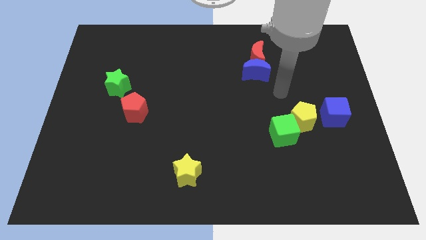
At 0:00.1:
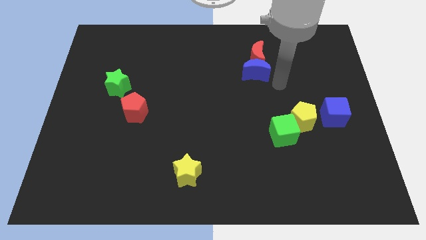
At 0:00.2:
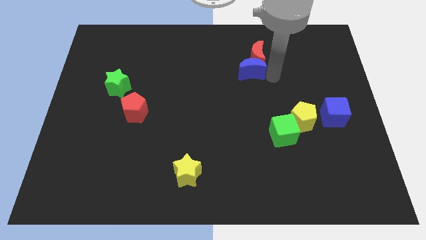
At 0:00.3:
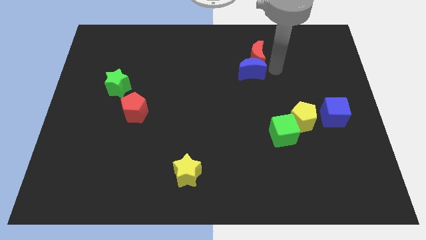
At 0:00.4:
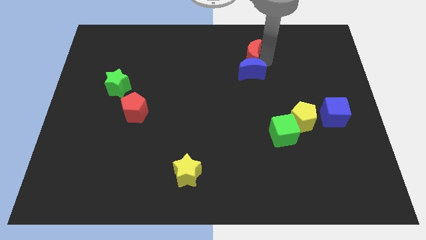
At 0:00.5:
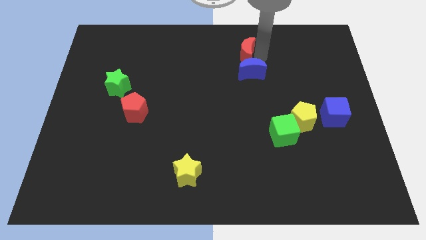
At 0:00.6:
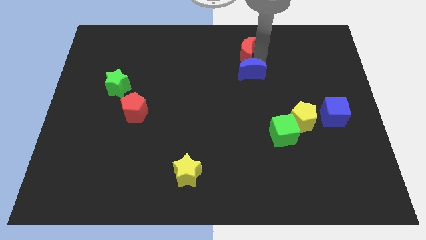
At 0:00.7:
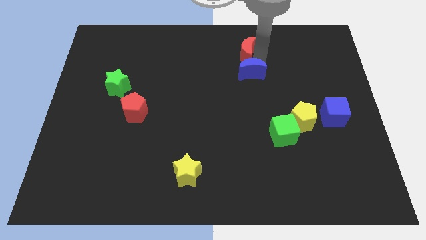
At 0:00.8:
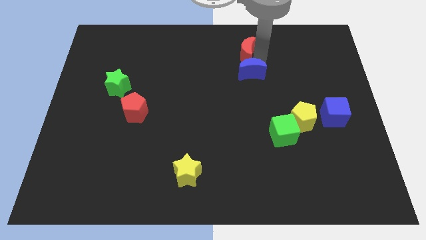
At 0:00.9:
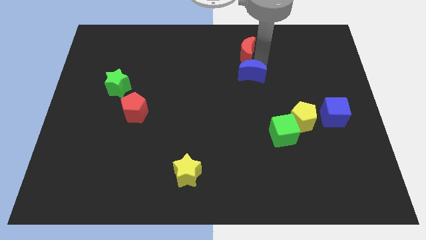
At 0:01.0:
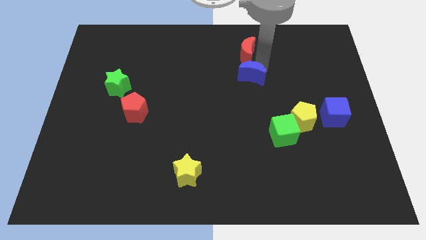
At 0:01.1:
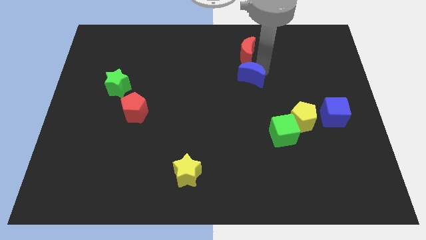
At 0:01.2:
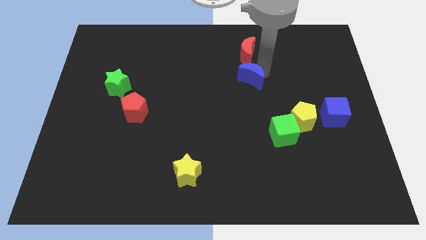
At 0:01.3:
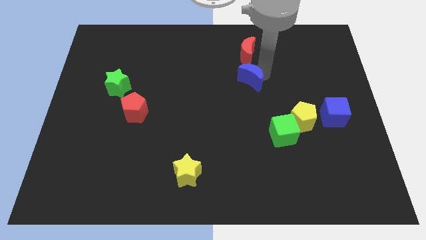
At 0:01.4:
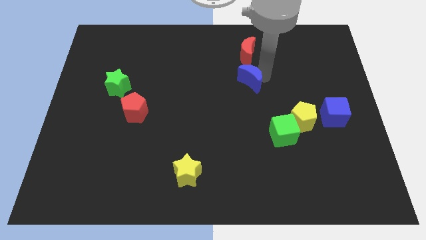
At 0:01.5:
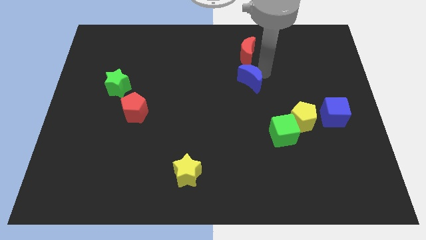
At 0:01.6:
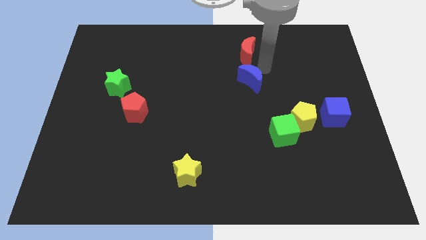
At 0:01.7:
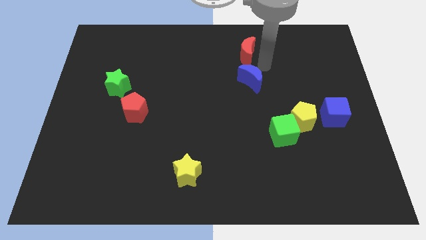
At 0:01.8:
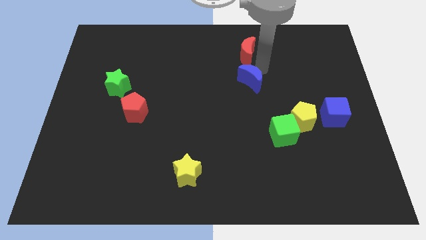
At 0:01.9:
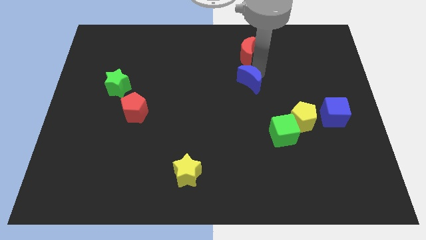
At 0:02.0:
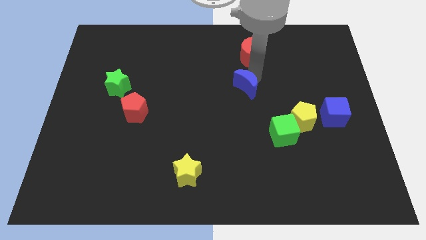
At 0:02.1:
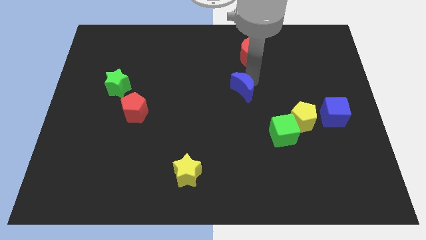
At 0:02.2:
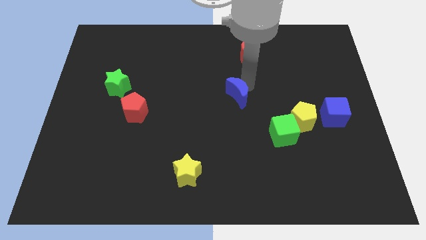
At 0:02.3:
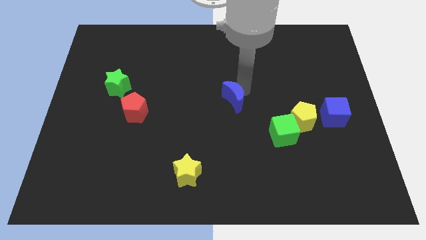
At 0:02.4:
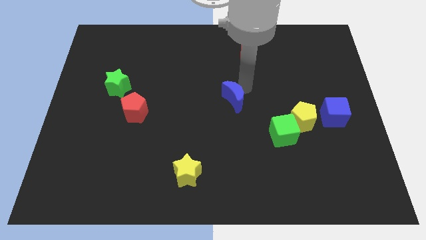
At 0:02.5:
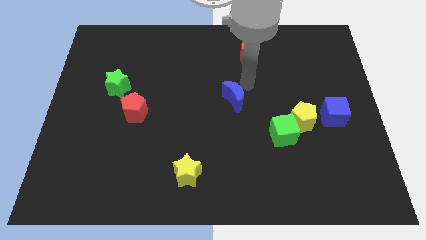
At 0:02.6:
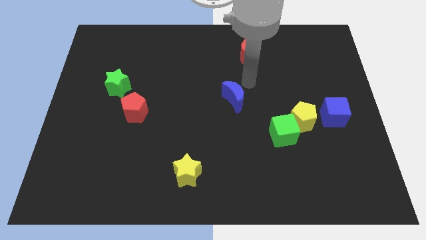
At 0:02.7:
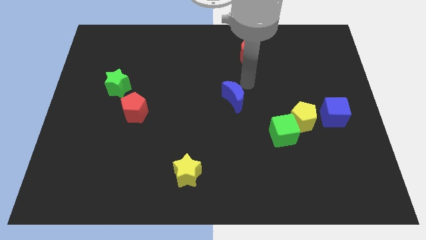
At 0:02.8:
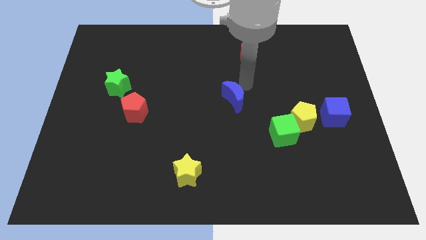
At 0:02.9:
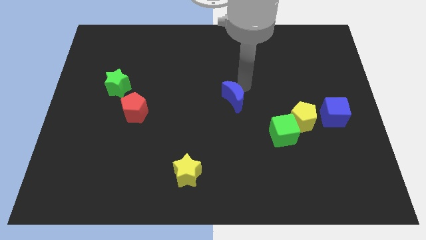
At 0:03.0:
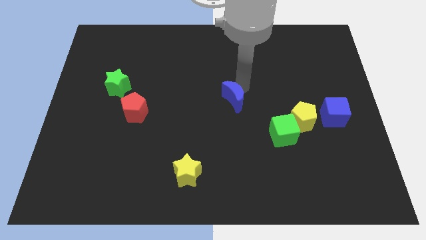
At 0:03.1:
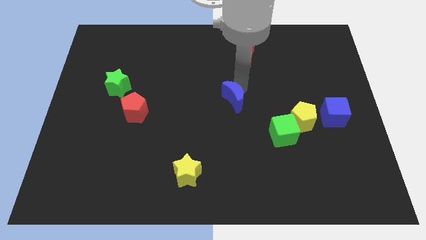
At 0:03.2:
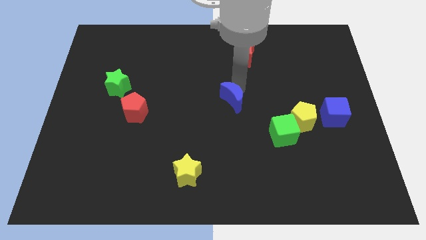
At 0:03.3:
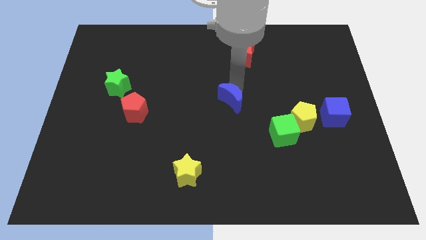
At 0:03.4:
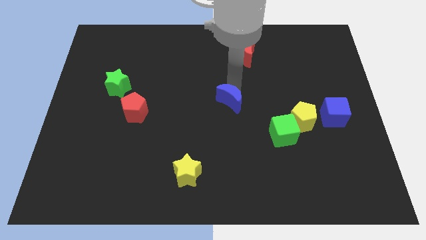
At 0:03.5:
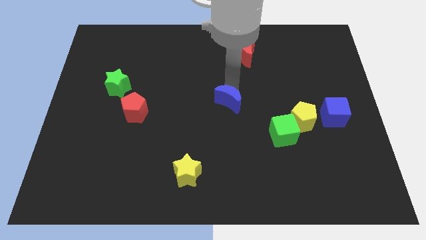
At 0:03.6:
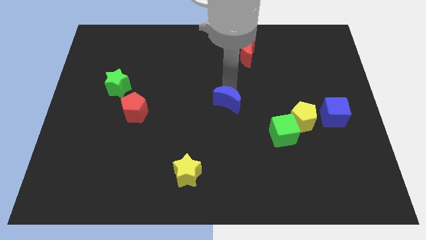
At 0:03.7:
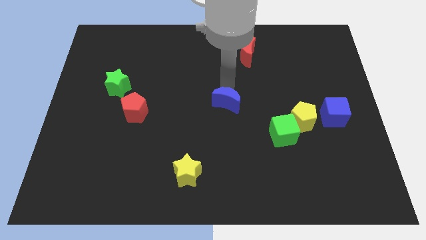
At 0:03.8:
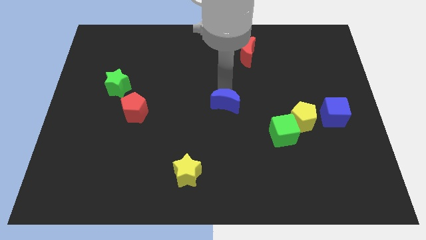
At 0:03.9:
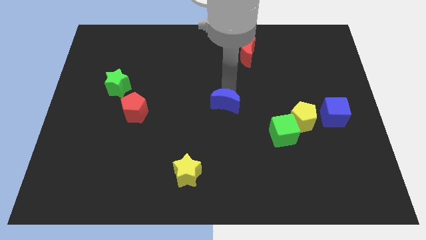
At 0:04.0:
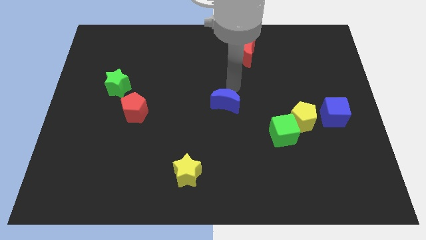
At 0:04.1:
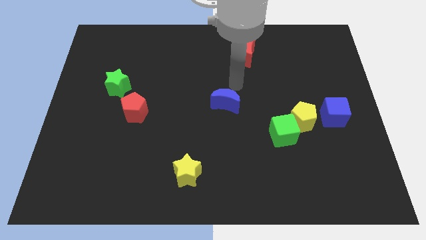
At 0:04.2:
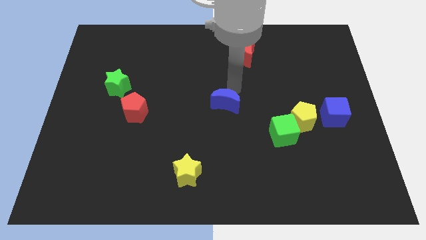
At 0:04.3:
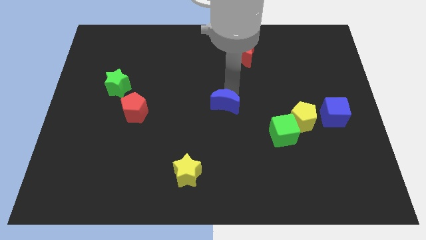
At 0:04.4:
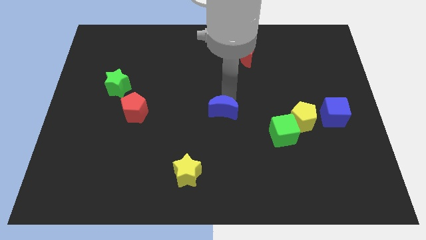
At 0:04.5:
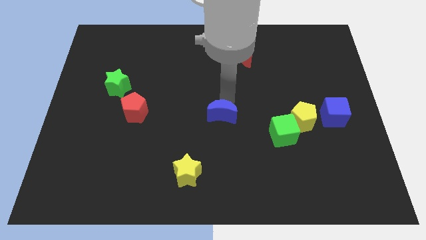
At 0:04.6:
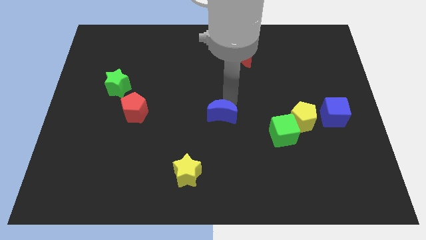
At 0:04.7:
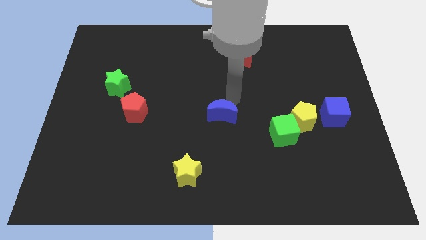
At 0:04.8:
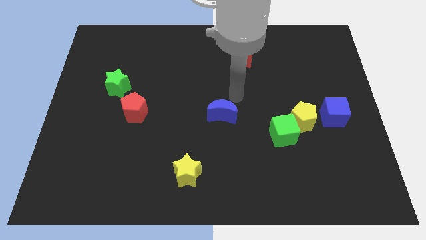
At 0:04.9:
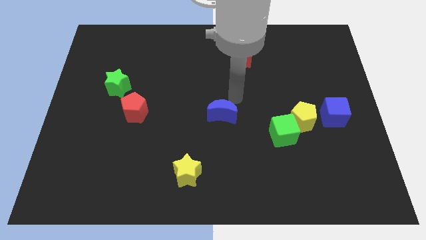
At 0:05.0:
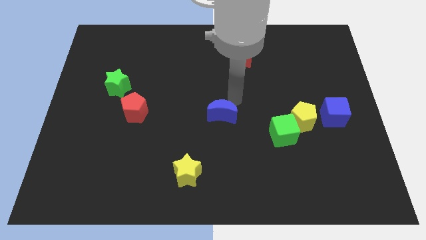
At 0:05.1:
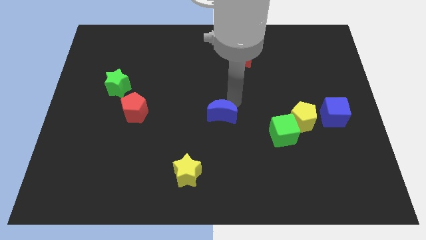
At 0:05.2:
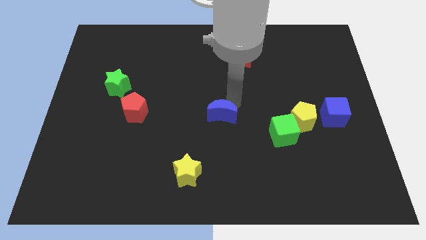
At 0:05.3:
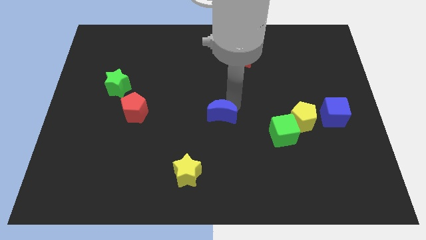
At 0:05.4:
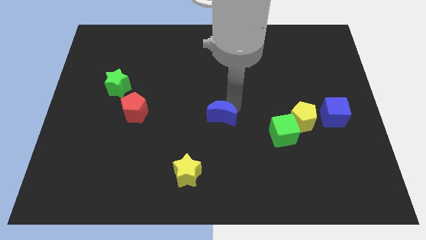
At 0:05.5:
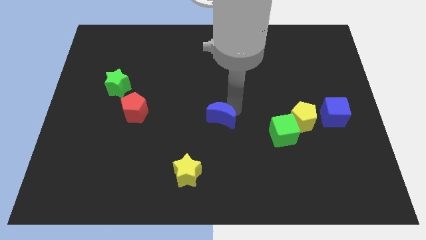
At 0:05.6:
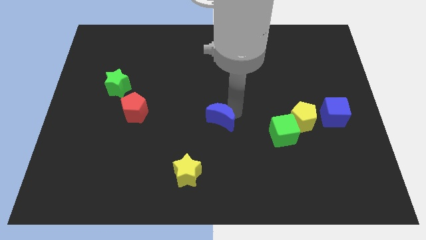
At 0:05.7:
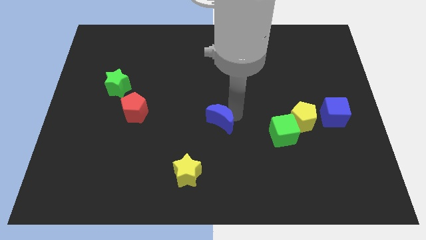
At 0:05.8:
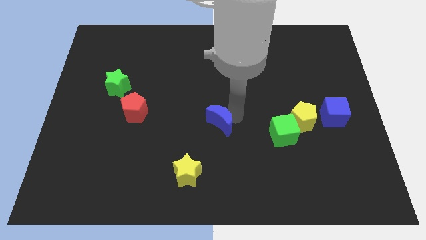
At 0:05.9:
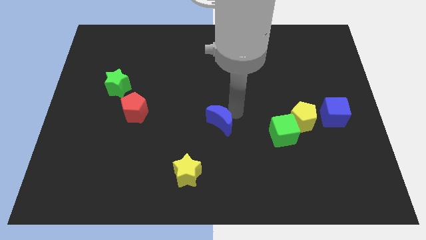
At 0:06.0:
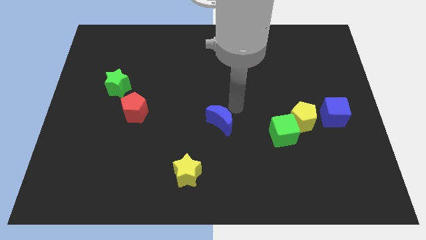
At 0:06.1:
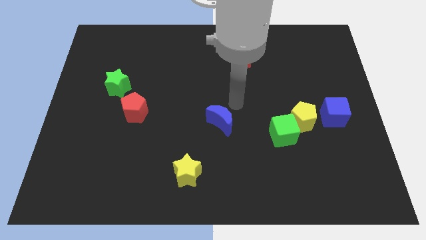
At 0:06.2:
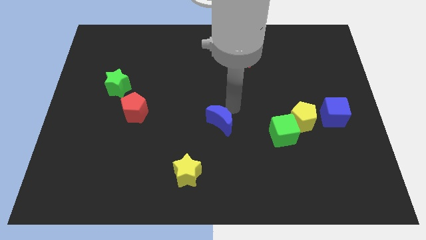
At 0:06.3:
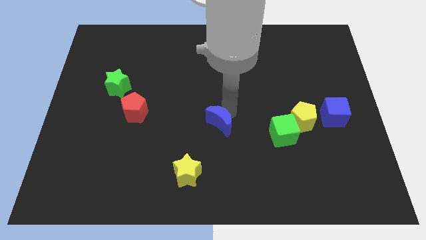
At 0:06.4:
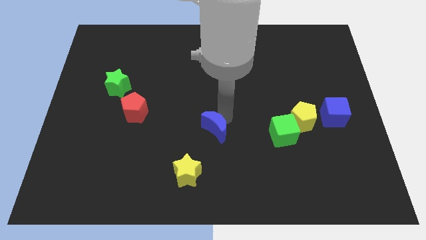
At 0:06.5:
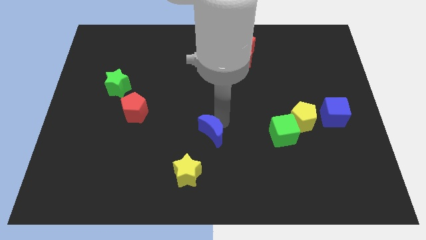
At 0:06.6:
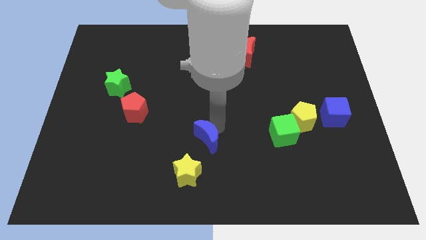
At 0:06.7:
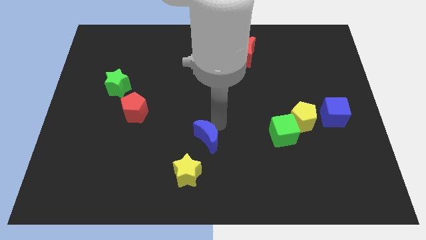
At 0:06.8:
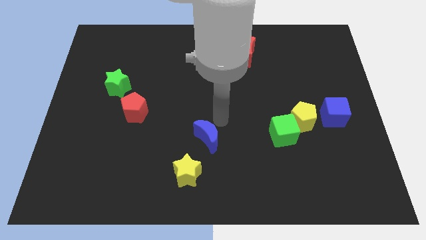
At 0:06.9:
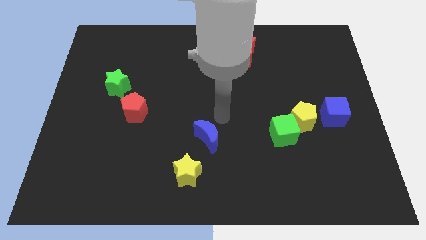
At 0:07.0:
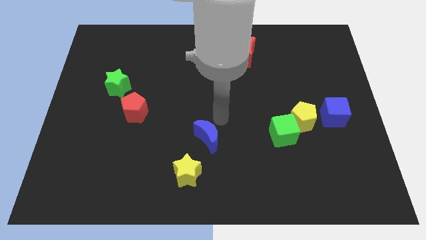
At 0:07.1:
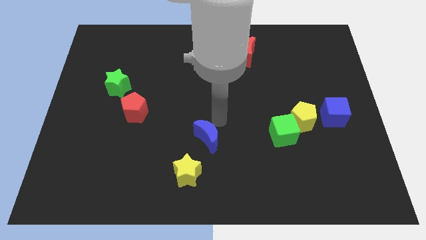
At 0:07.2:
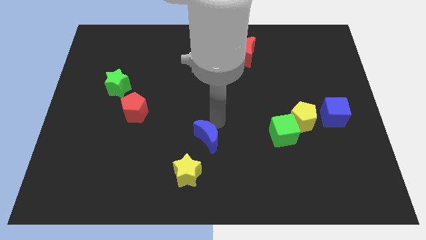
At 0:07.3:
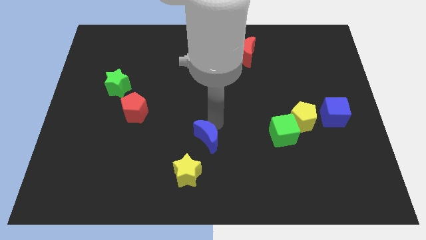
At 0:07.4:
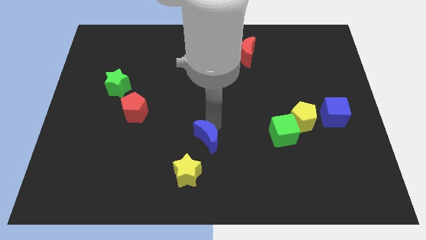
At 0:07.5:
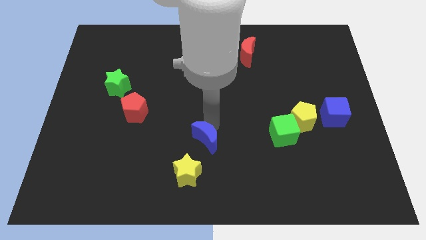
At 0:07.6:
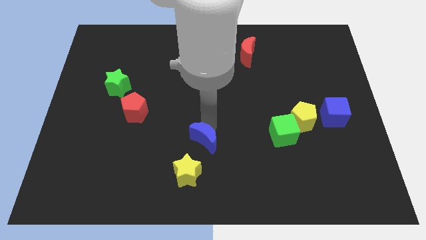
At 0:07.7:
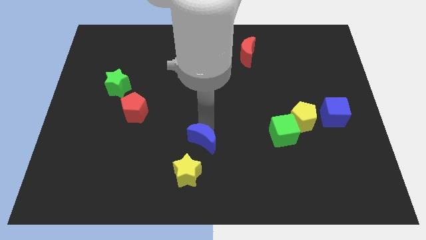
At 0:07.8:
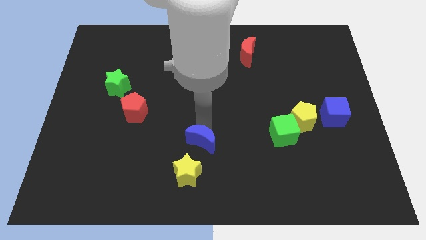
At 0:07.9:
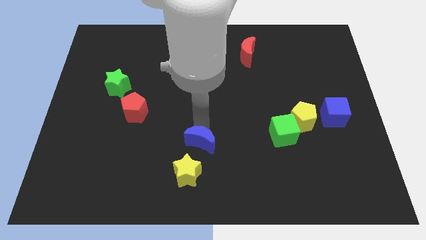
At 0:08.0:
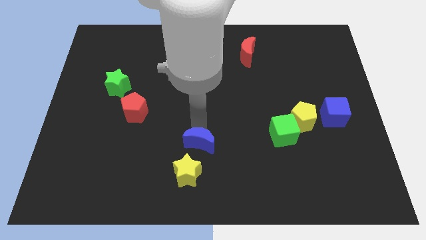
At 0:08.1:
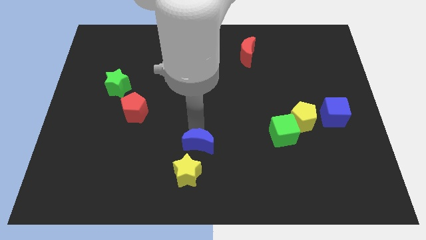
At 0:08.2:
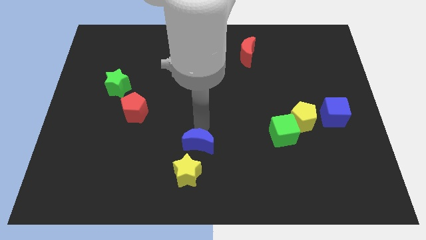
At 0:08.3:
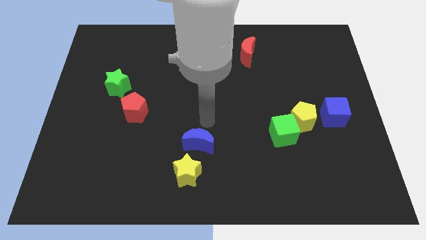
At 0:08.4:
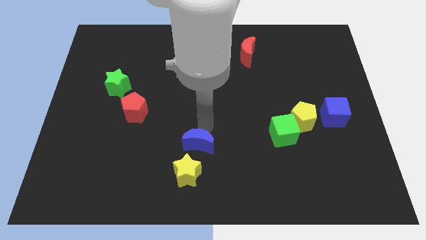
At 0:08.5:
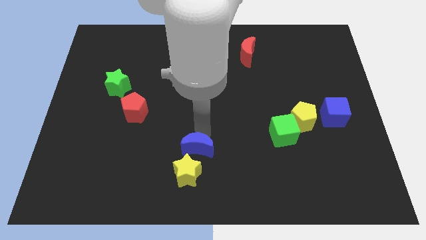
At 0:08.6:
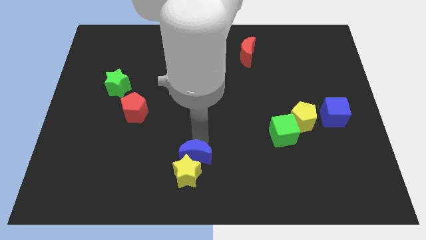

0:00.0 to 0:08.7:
move the blue moon next to the yellow star
